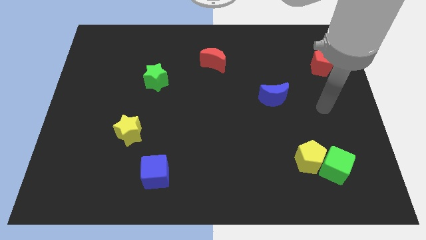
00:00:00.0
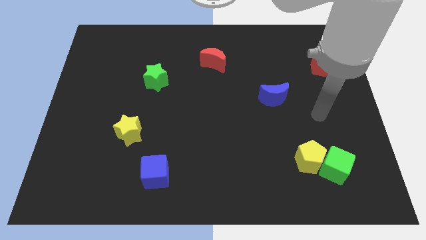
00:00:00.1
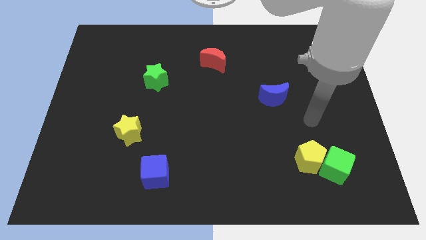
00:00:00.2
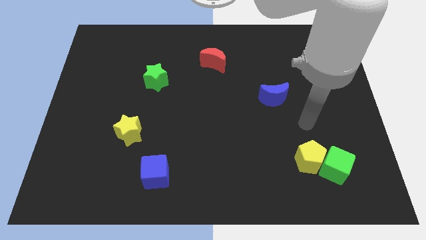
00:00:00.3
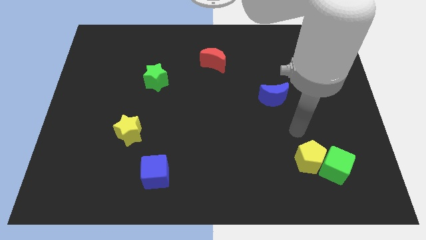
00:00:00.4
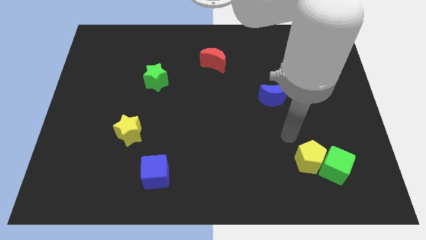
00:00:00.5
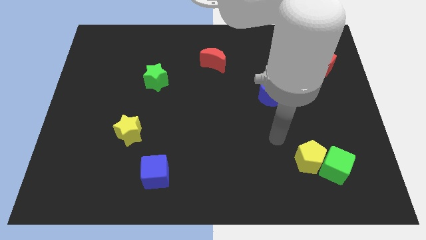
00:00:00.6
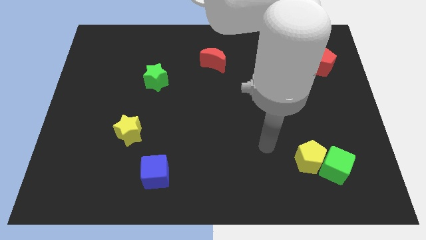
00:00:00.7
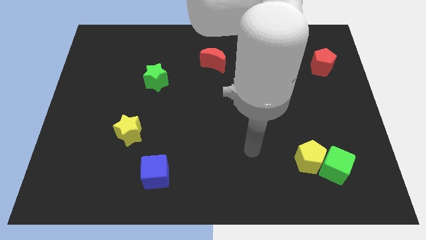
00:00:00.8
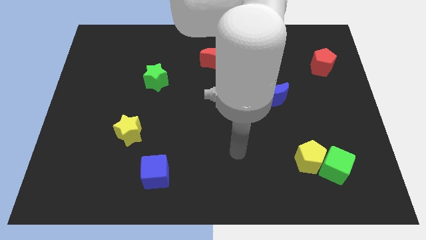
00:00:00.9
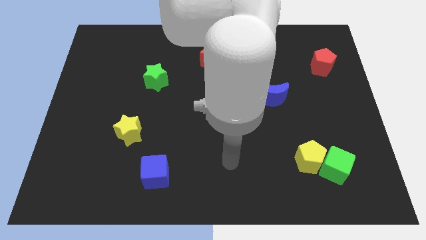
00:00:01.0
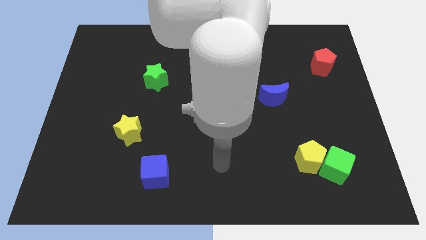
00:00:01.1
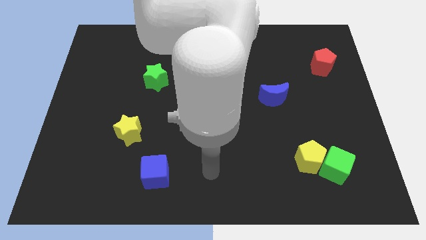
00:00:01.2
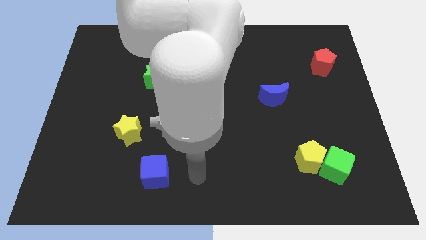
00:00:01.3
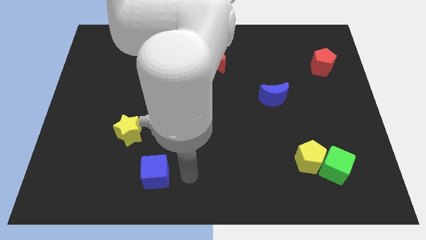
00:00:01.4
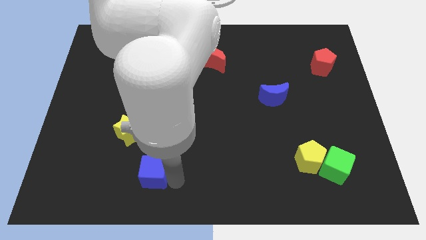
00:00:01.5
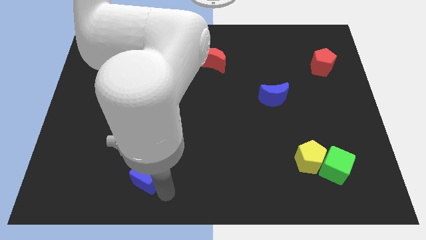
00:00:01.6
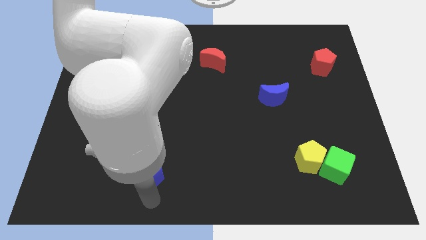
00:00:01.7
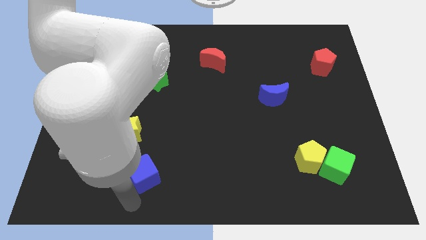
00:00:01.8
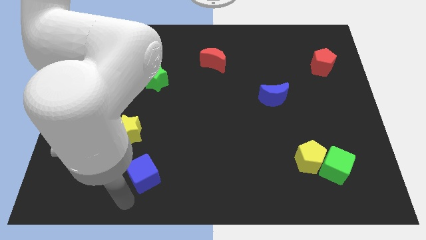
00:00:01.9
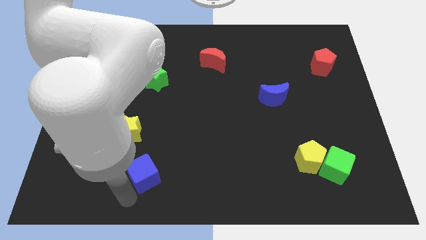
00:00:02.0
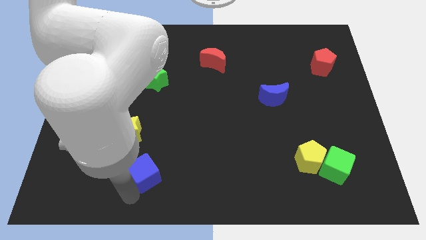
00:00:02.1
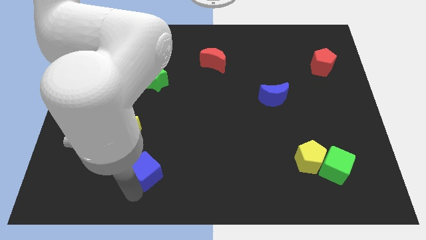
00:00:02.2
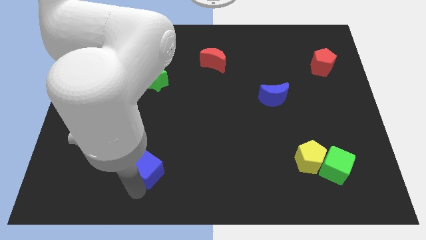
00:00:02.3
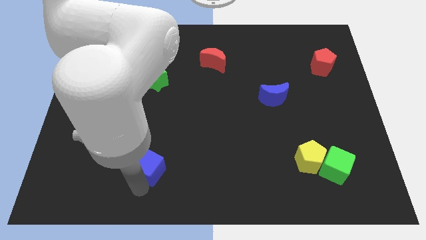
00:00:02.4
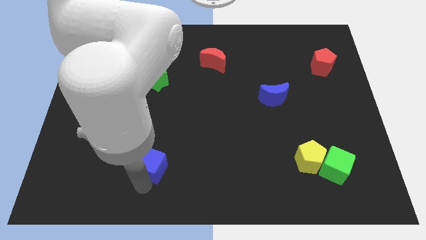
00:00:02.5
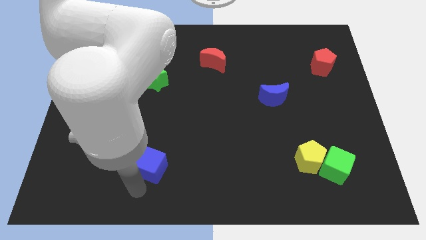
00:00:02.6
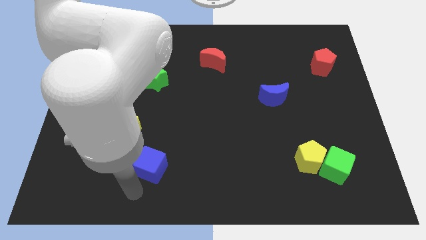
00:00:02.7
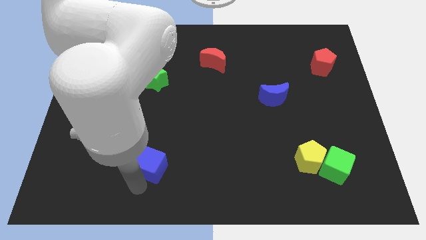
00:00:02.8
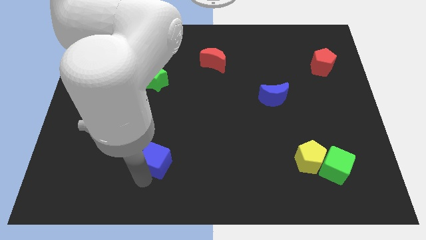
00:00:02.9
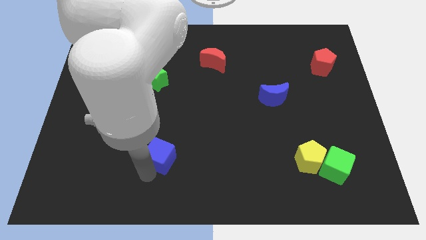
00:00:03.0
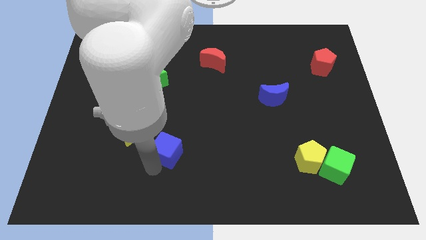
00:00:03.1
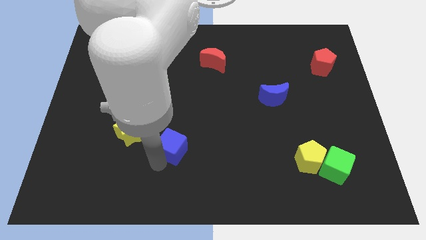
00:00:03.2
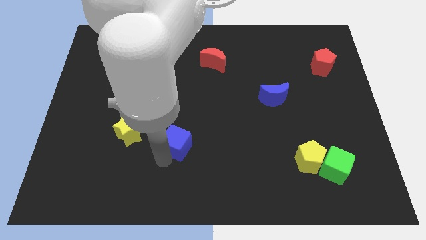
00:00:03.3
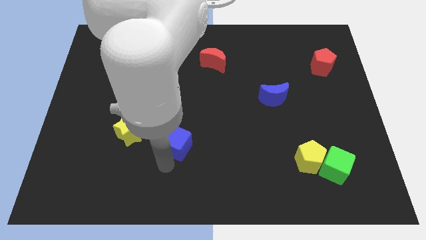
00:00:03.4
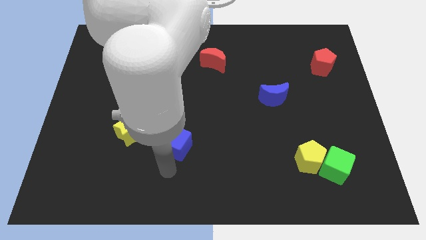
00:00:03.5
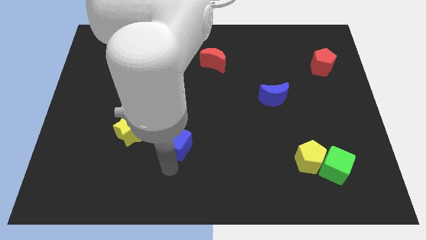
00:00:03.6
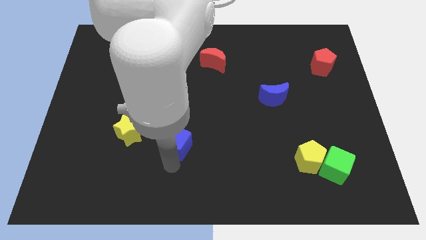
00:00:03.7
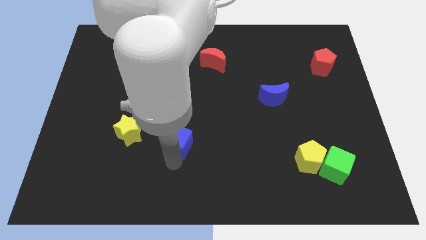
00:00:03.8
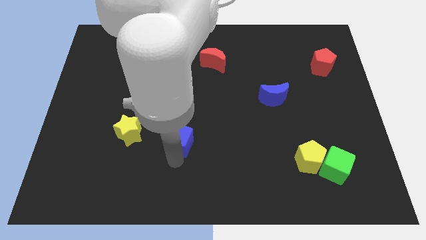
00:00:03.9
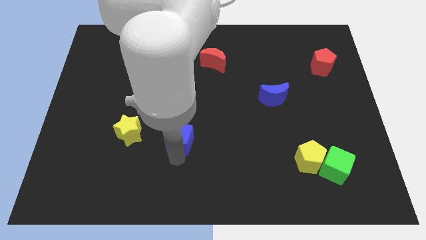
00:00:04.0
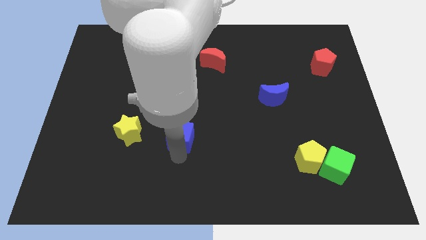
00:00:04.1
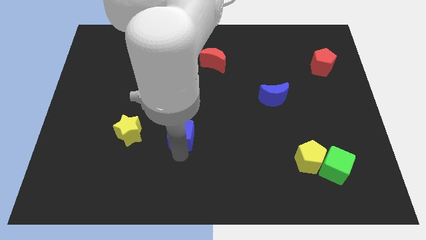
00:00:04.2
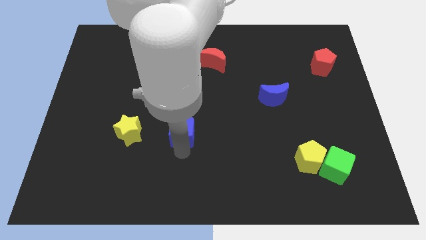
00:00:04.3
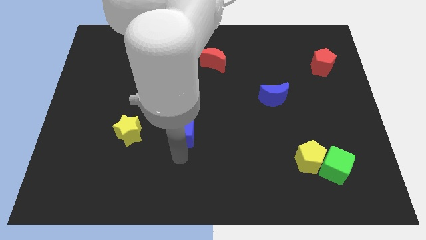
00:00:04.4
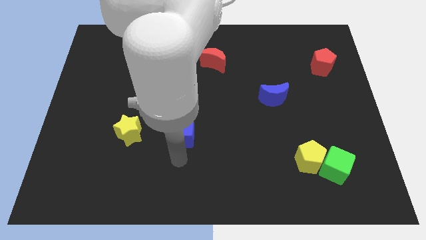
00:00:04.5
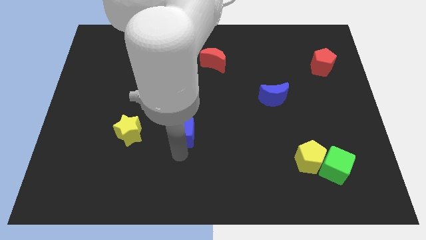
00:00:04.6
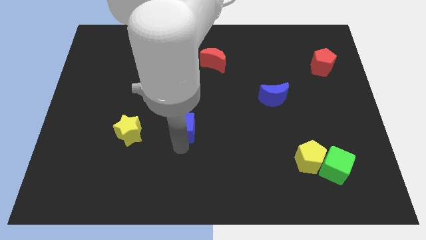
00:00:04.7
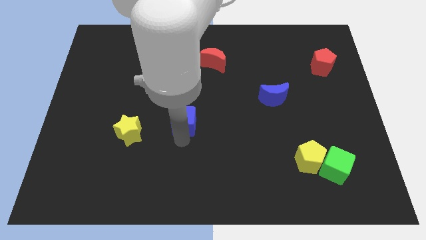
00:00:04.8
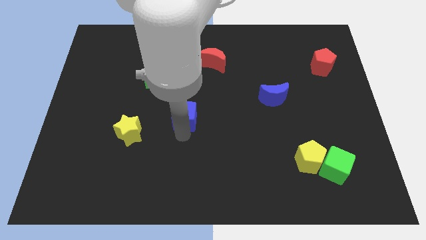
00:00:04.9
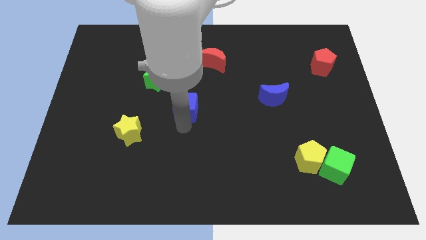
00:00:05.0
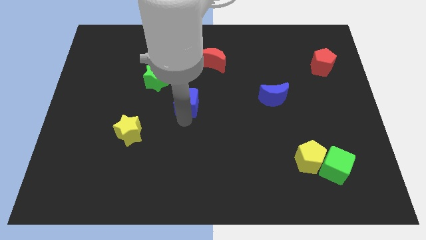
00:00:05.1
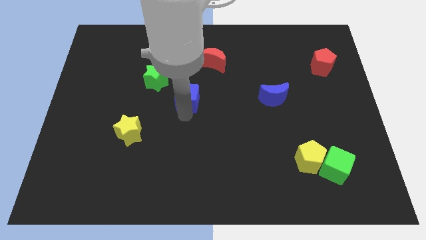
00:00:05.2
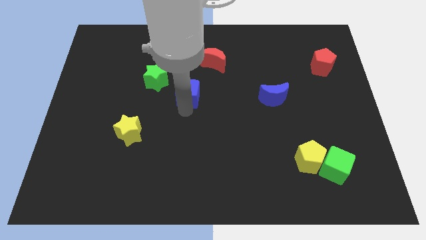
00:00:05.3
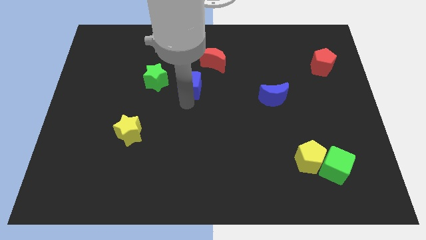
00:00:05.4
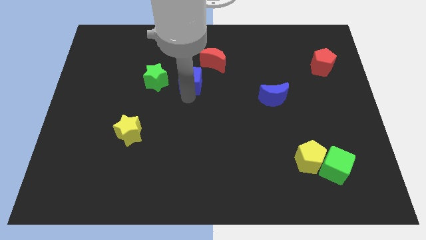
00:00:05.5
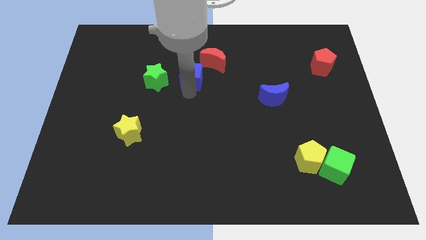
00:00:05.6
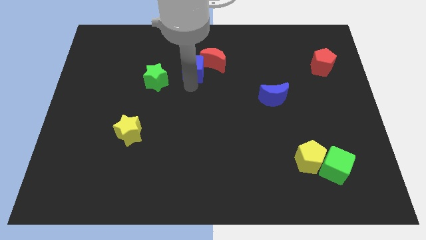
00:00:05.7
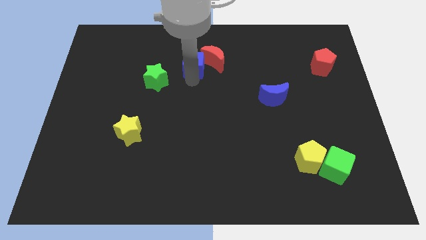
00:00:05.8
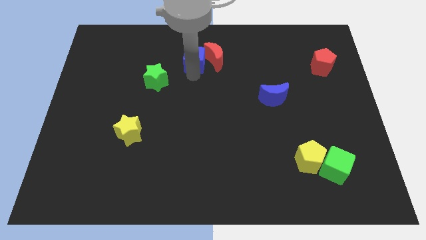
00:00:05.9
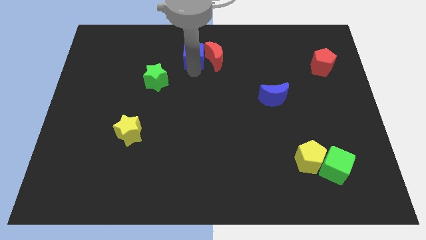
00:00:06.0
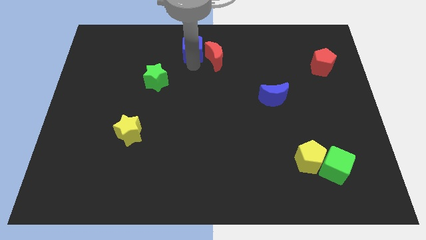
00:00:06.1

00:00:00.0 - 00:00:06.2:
move the blue cube to the top side
